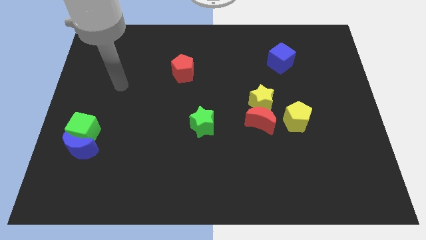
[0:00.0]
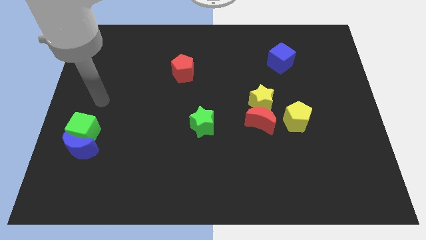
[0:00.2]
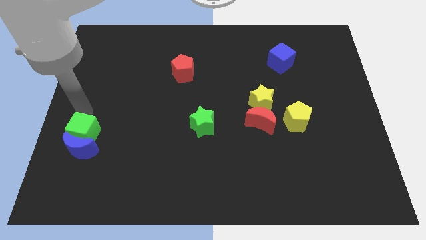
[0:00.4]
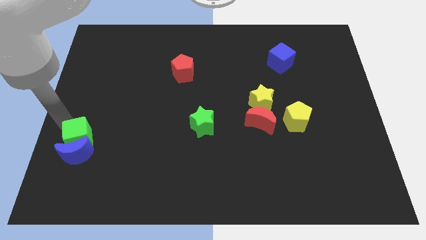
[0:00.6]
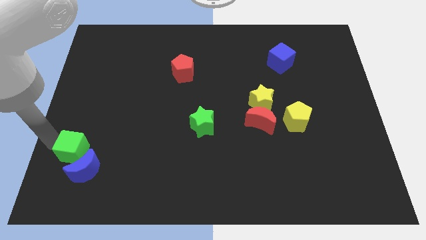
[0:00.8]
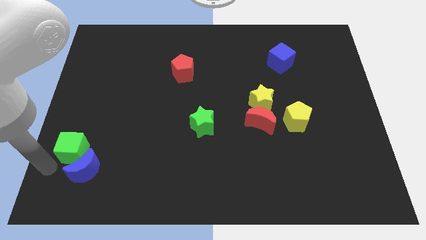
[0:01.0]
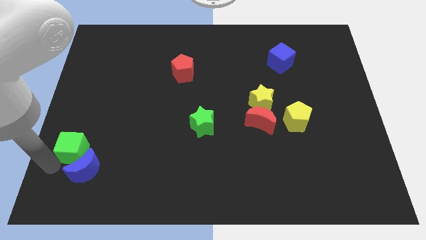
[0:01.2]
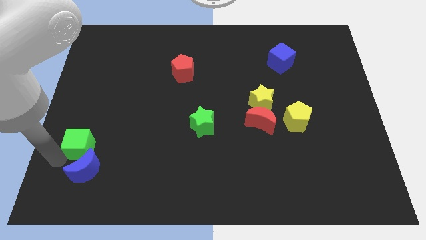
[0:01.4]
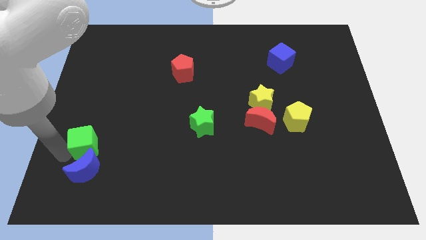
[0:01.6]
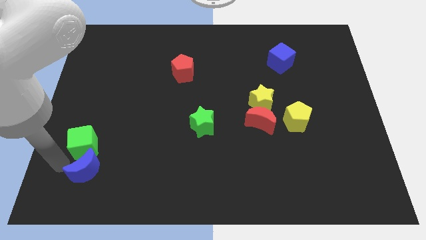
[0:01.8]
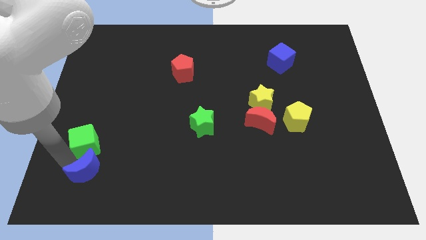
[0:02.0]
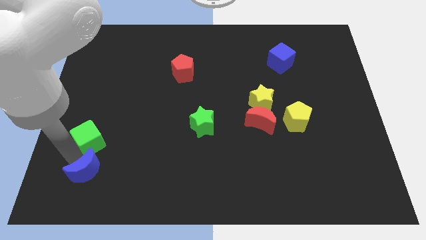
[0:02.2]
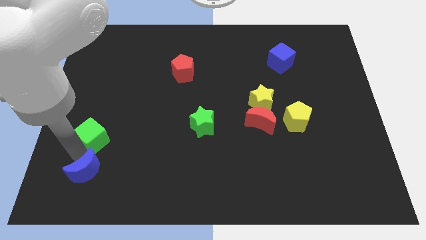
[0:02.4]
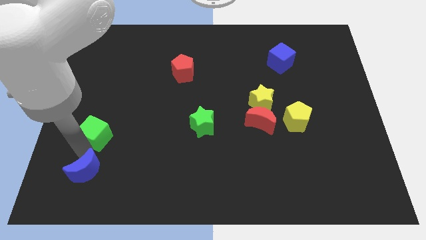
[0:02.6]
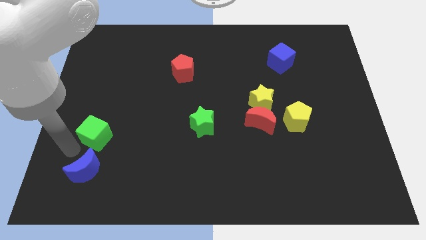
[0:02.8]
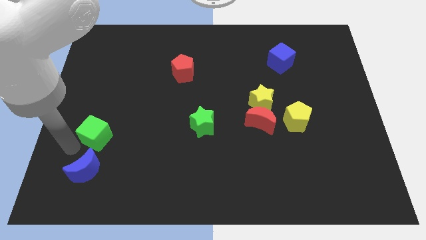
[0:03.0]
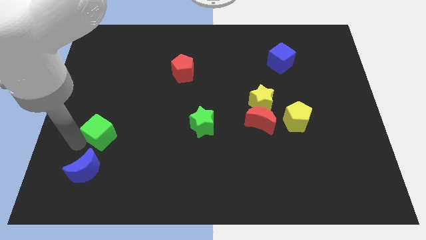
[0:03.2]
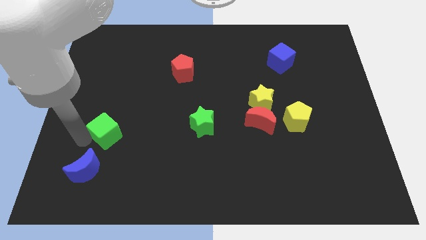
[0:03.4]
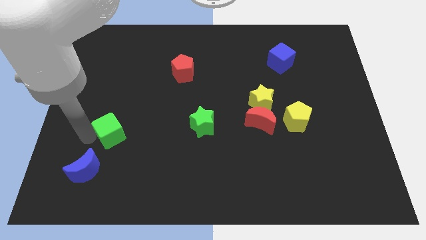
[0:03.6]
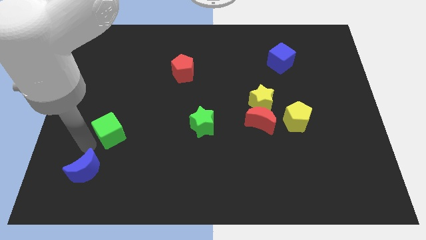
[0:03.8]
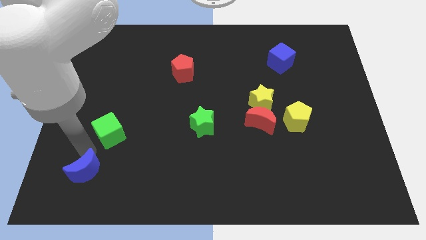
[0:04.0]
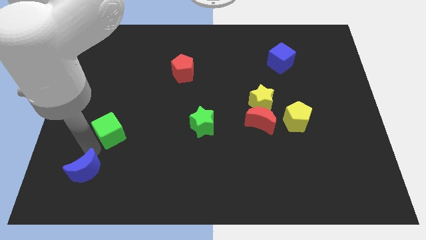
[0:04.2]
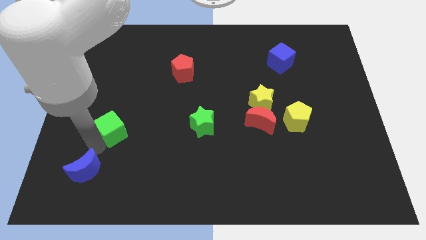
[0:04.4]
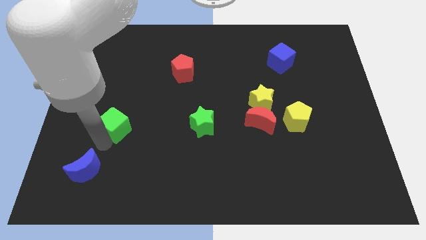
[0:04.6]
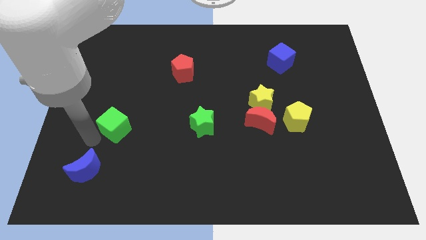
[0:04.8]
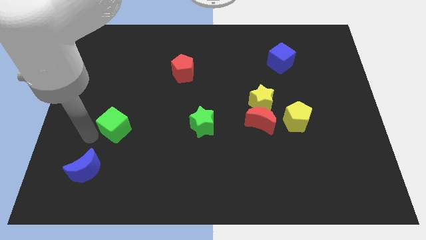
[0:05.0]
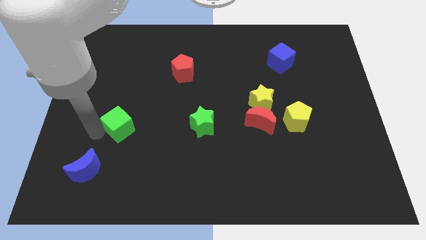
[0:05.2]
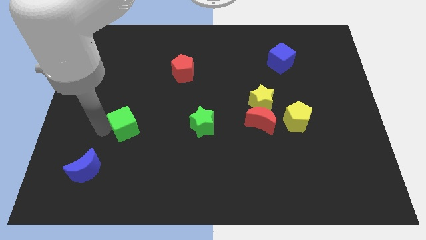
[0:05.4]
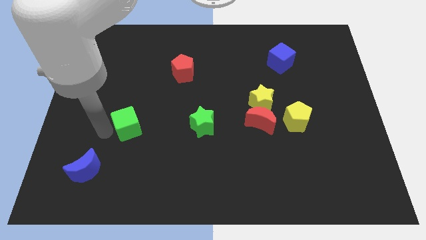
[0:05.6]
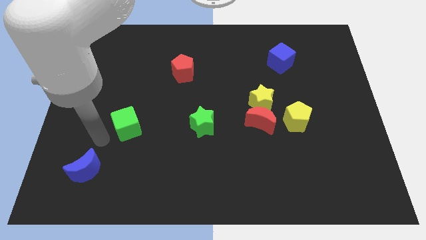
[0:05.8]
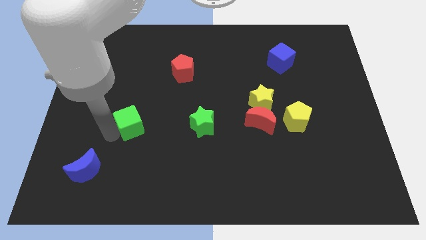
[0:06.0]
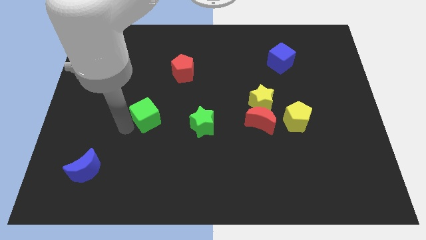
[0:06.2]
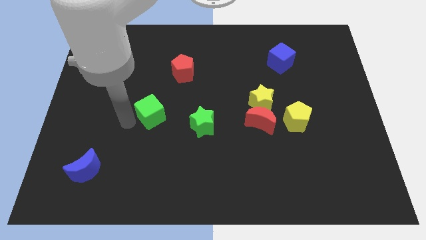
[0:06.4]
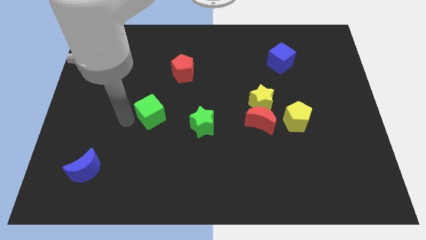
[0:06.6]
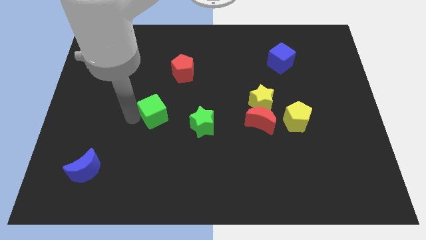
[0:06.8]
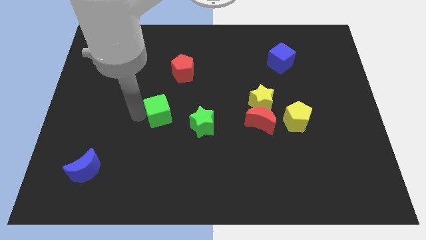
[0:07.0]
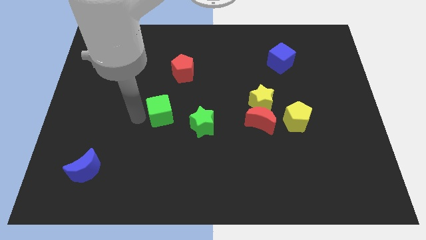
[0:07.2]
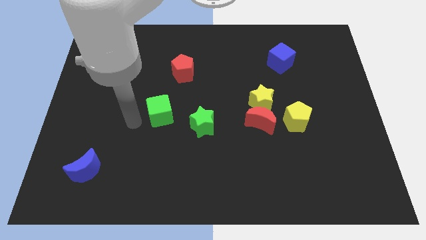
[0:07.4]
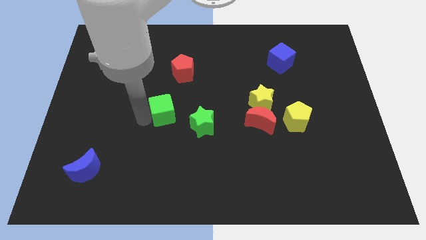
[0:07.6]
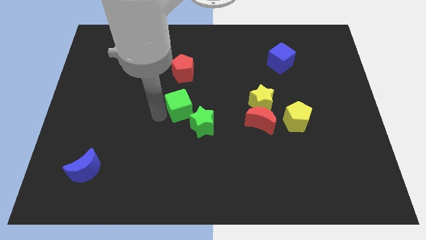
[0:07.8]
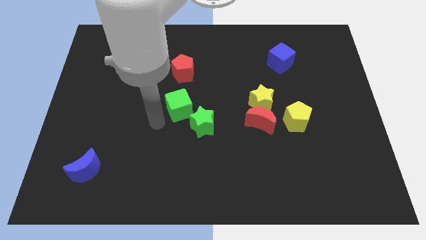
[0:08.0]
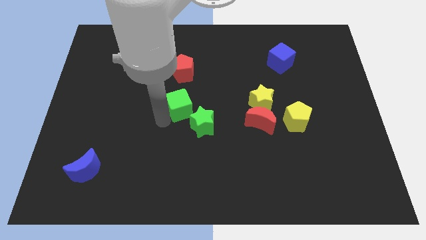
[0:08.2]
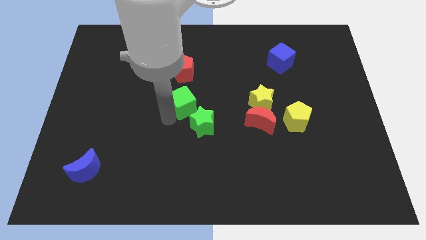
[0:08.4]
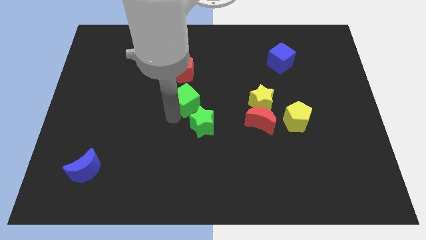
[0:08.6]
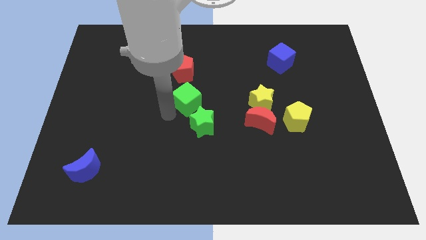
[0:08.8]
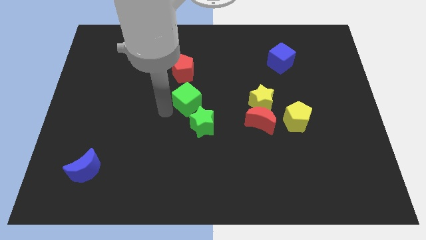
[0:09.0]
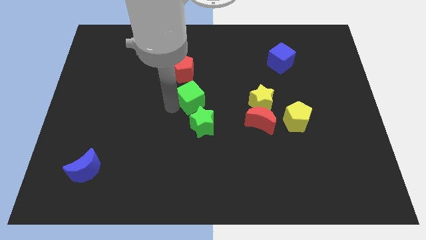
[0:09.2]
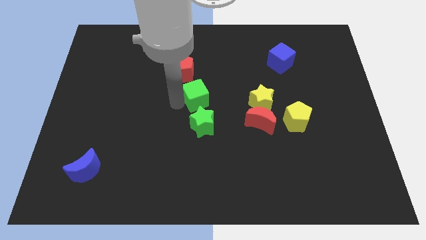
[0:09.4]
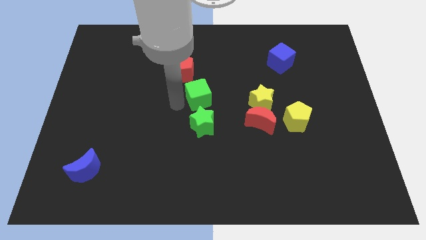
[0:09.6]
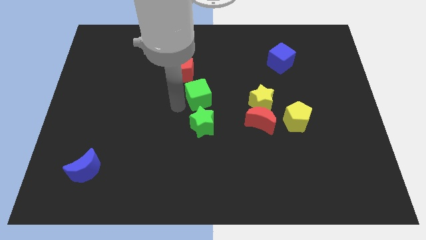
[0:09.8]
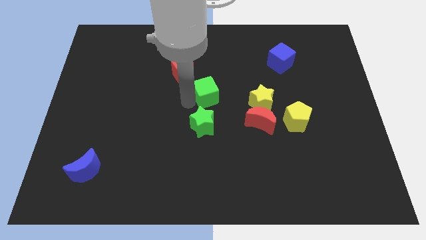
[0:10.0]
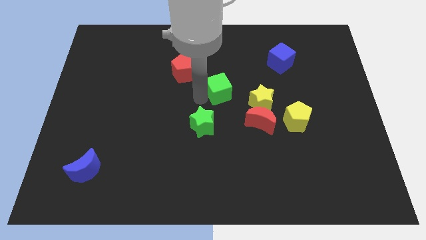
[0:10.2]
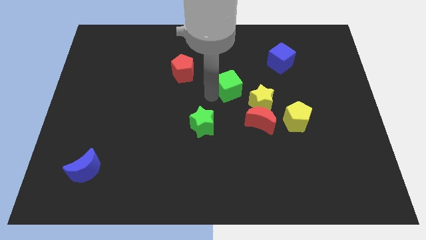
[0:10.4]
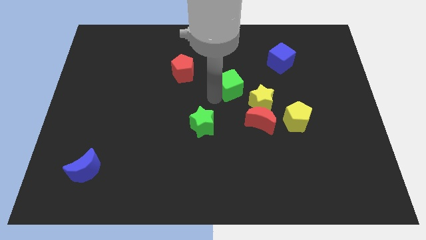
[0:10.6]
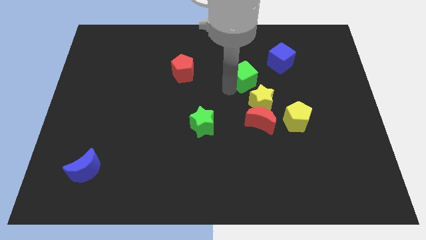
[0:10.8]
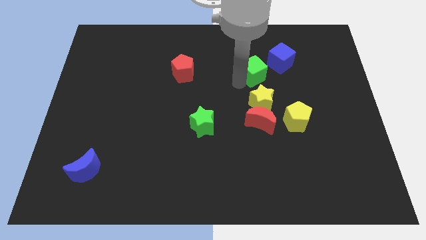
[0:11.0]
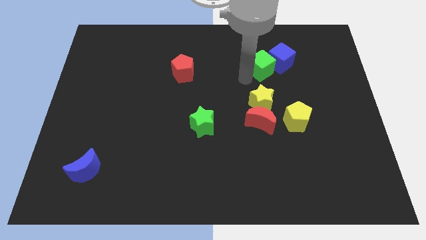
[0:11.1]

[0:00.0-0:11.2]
put the green cube towards the blue cube

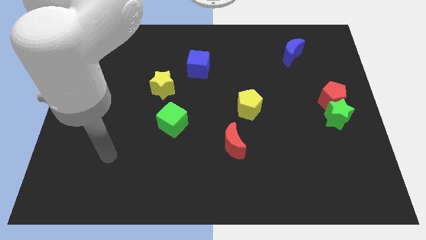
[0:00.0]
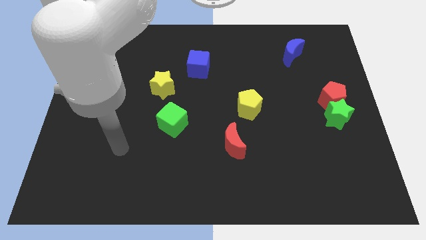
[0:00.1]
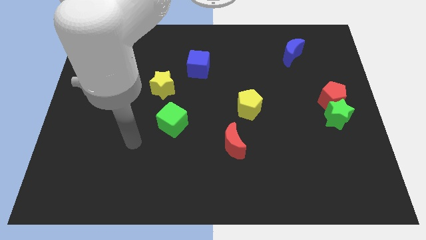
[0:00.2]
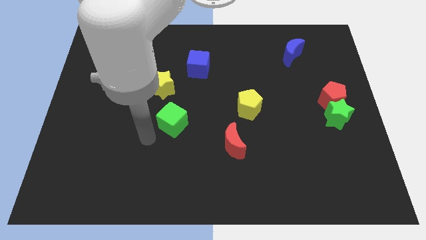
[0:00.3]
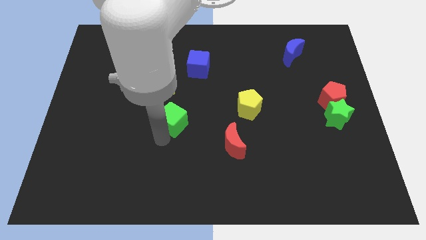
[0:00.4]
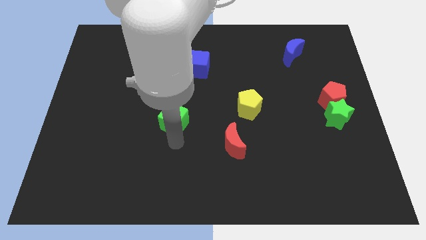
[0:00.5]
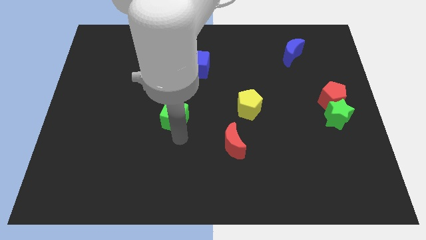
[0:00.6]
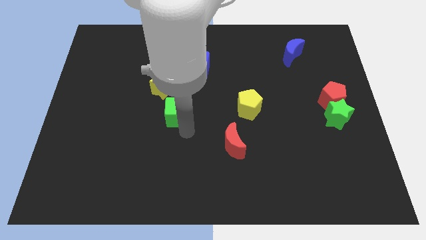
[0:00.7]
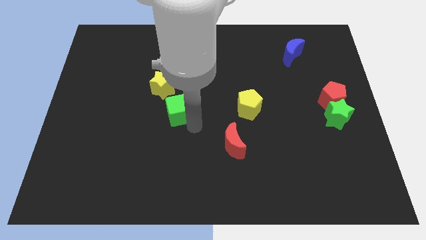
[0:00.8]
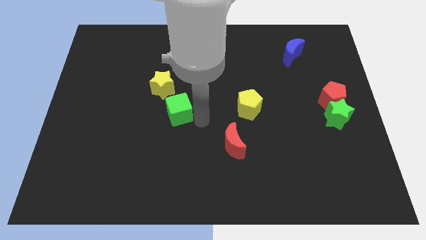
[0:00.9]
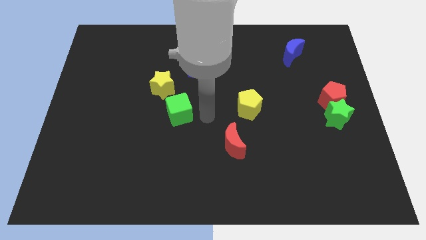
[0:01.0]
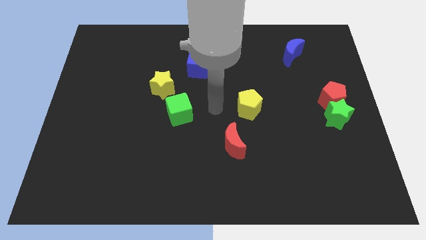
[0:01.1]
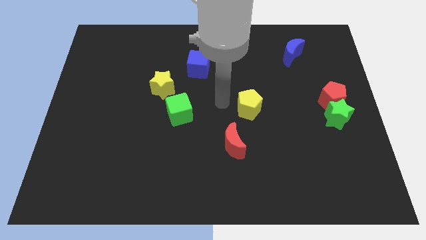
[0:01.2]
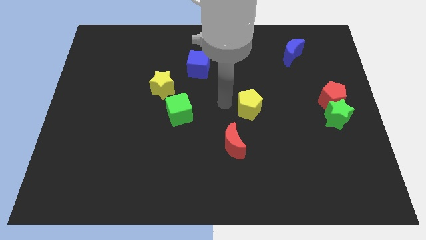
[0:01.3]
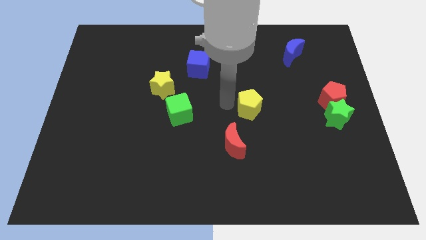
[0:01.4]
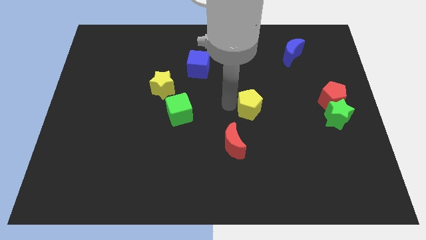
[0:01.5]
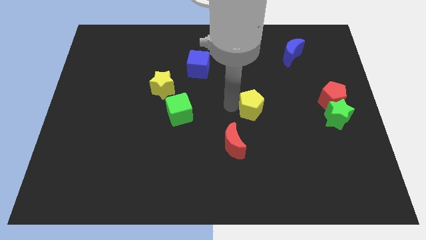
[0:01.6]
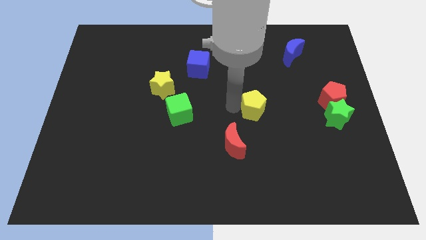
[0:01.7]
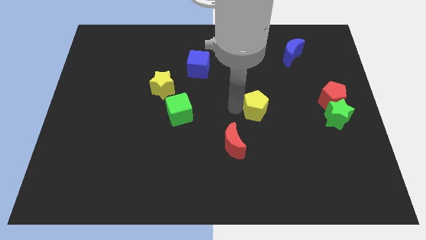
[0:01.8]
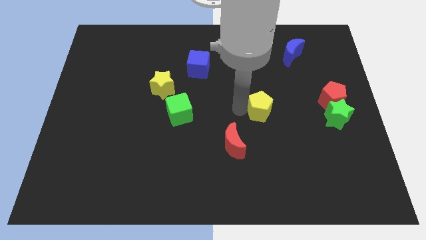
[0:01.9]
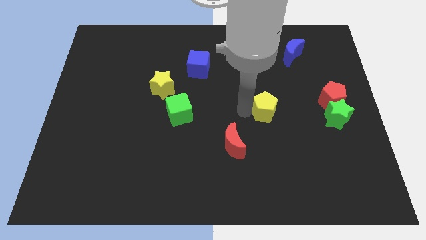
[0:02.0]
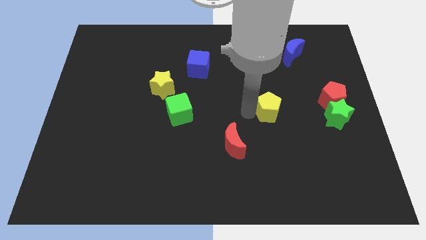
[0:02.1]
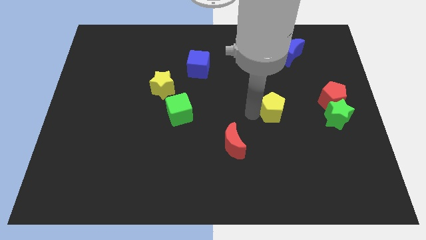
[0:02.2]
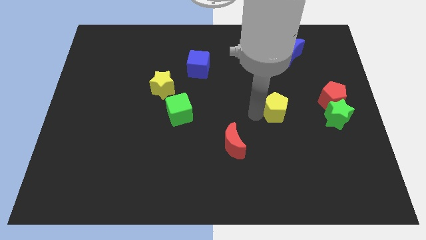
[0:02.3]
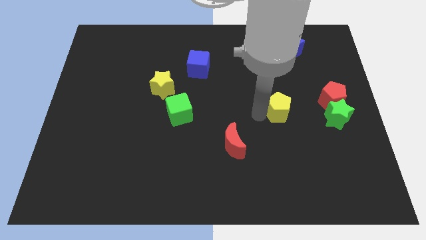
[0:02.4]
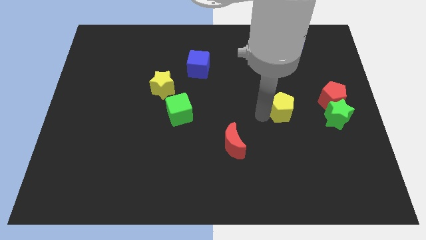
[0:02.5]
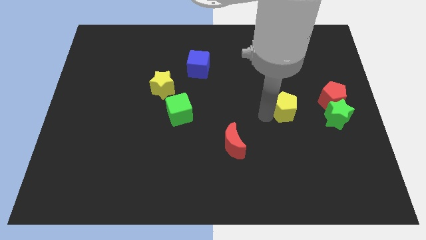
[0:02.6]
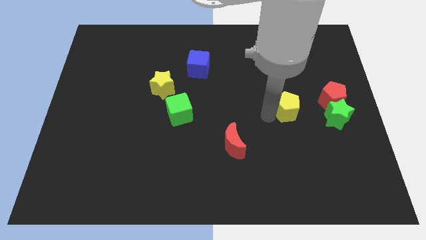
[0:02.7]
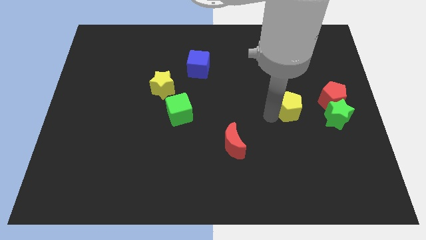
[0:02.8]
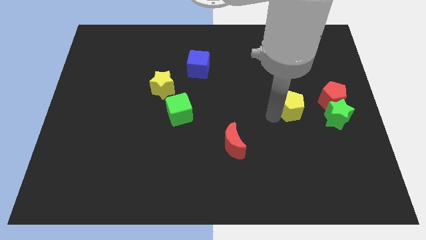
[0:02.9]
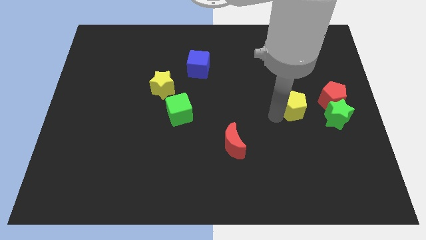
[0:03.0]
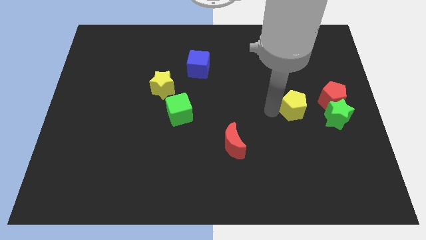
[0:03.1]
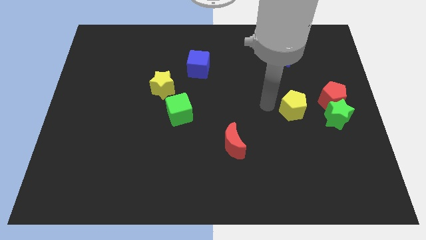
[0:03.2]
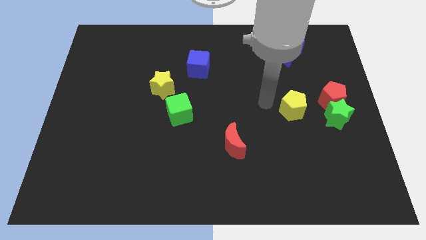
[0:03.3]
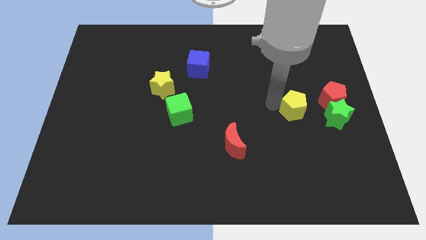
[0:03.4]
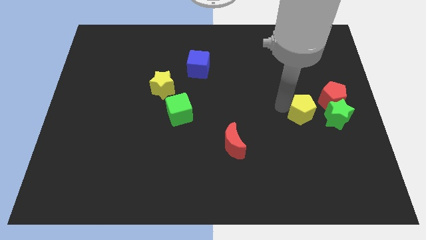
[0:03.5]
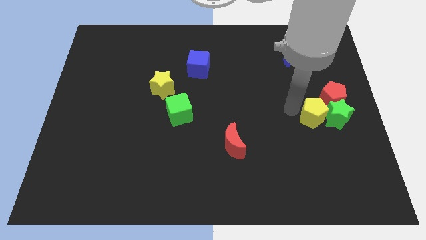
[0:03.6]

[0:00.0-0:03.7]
slide the yellow pentagon close to the green star
